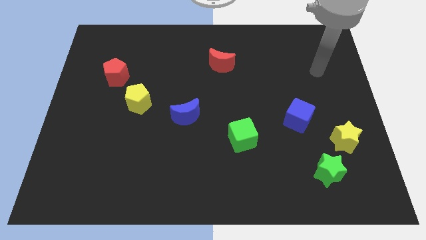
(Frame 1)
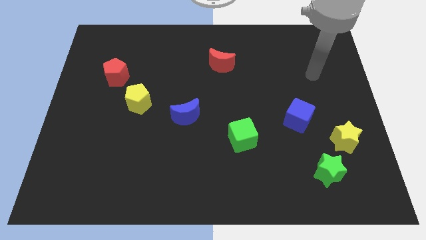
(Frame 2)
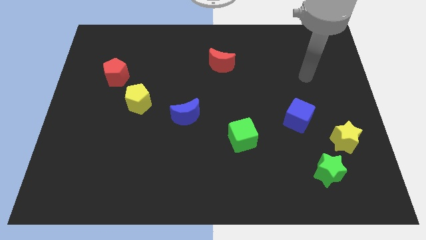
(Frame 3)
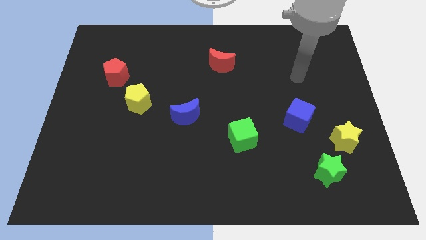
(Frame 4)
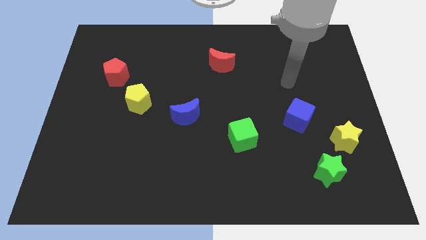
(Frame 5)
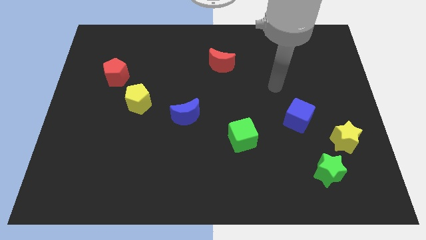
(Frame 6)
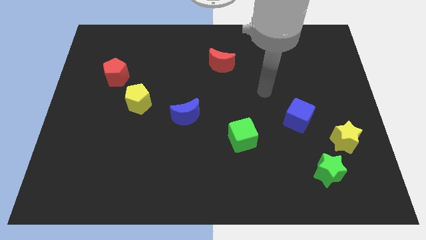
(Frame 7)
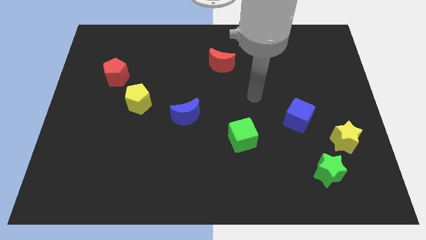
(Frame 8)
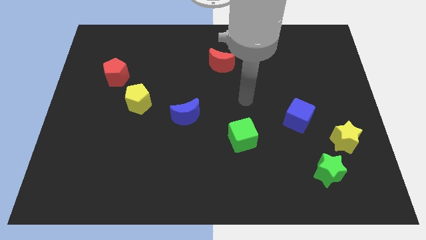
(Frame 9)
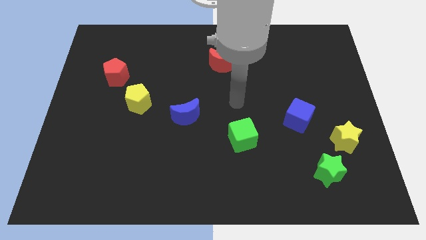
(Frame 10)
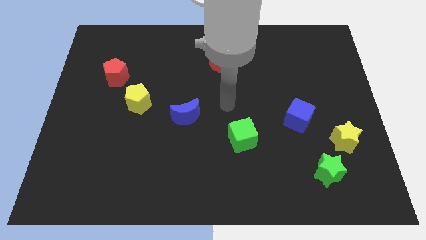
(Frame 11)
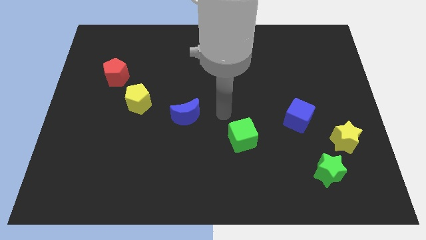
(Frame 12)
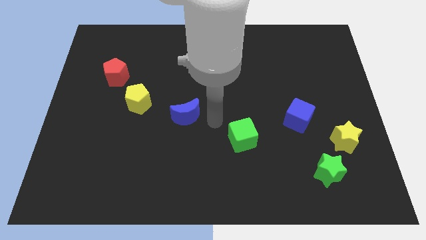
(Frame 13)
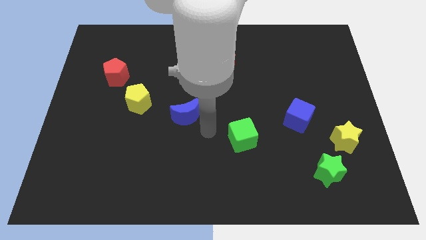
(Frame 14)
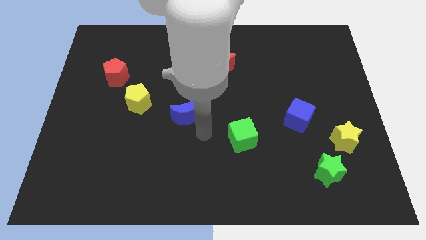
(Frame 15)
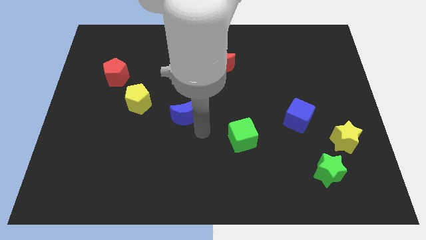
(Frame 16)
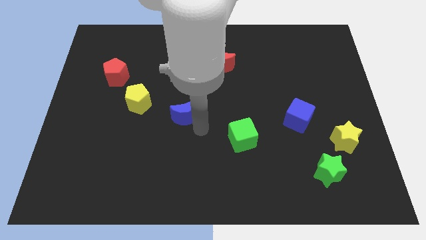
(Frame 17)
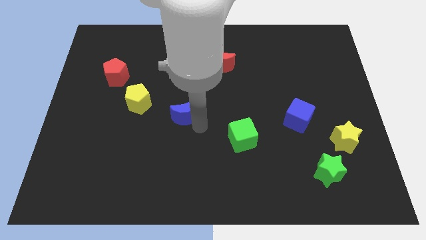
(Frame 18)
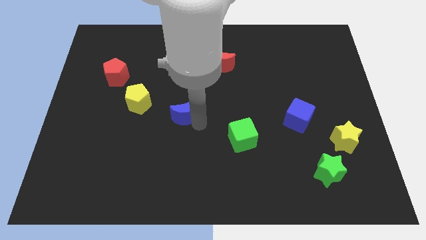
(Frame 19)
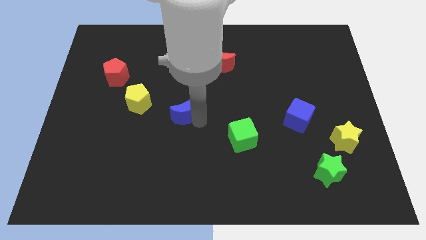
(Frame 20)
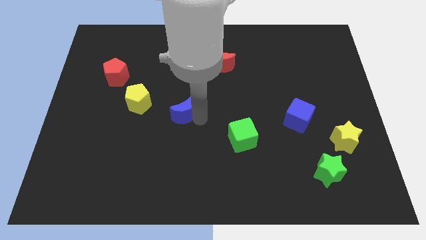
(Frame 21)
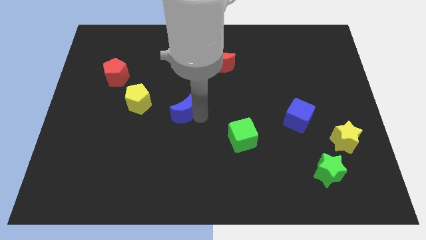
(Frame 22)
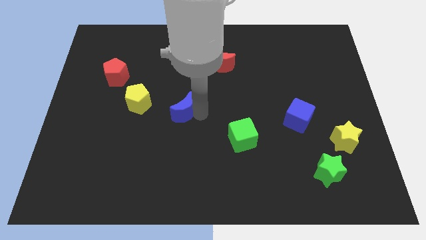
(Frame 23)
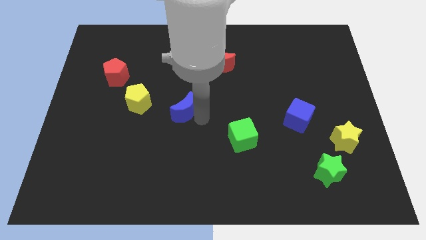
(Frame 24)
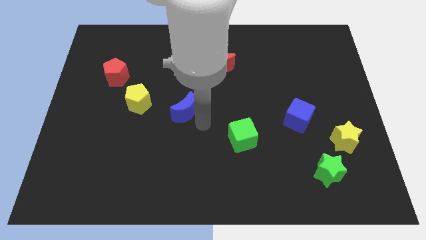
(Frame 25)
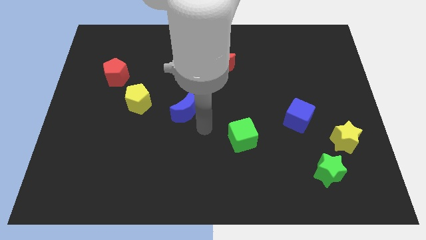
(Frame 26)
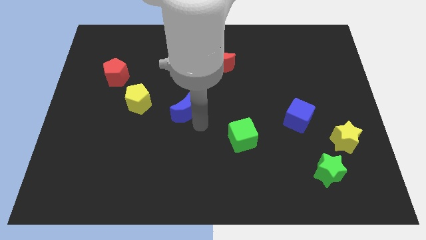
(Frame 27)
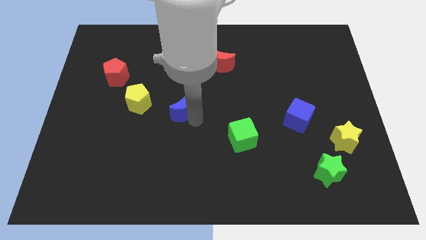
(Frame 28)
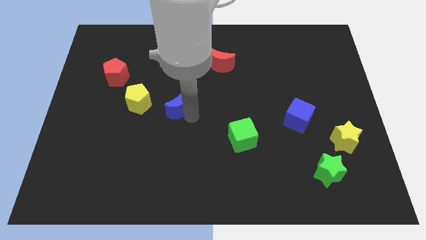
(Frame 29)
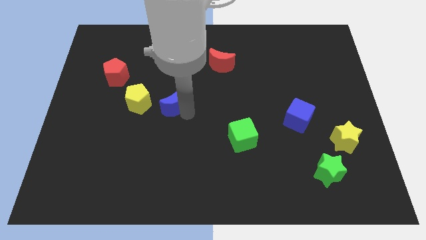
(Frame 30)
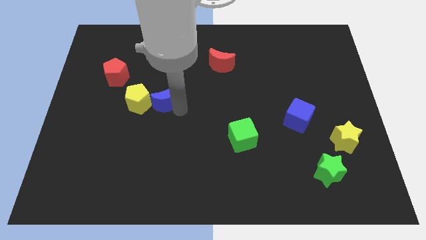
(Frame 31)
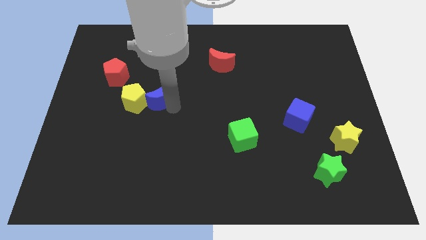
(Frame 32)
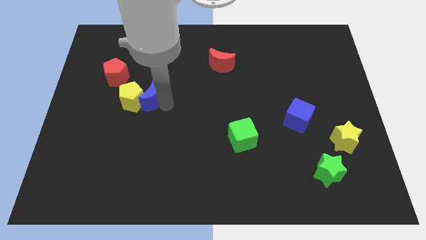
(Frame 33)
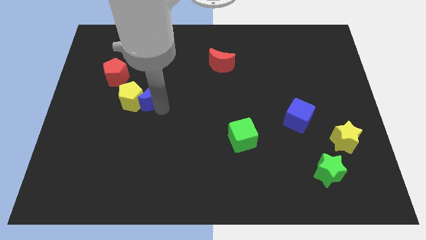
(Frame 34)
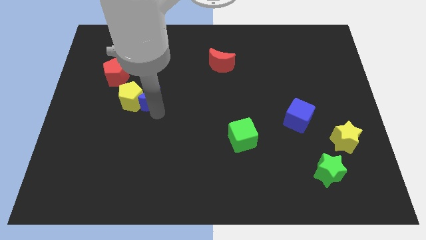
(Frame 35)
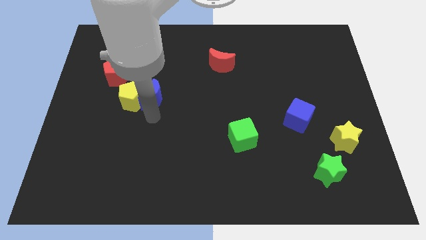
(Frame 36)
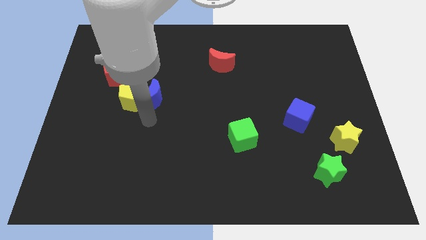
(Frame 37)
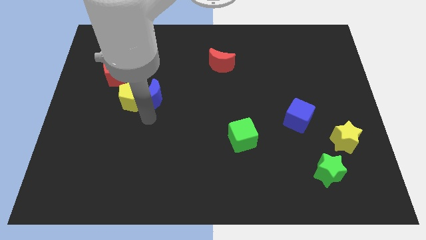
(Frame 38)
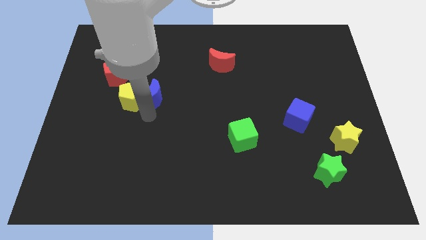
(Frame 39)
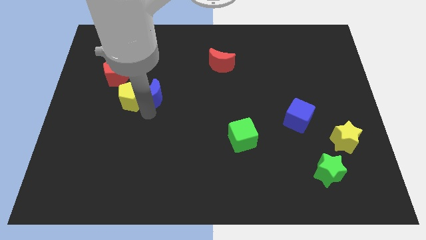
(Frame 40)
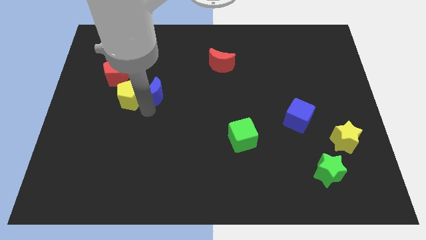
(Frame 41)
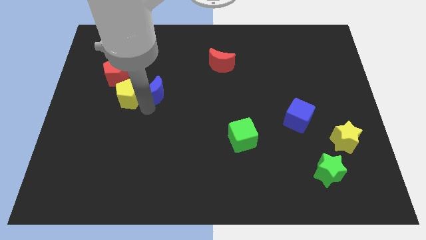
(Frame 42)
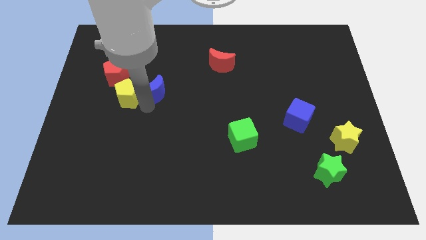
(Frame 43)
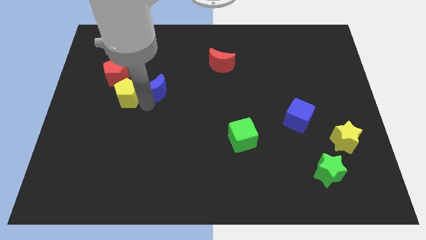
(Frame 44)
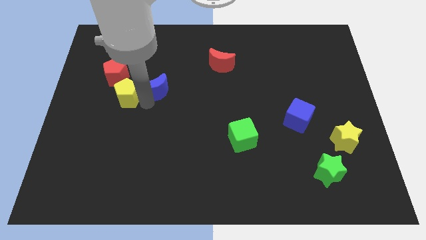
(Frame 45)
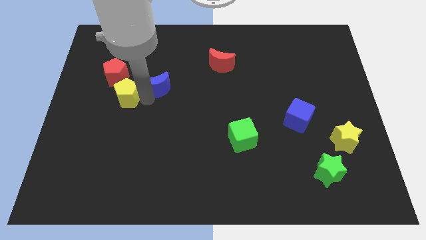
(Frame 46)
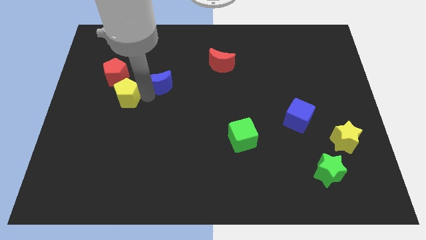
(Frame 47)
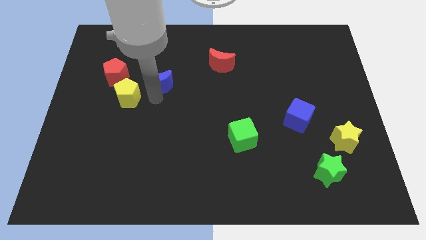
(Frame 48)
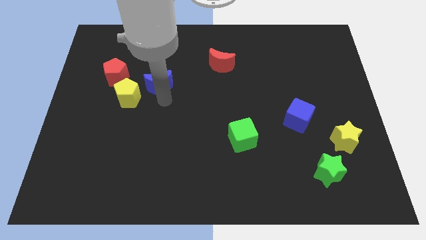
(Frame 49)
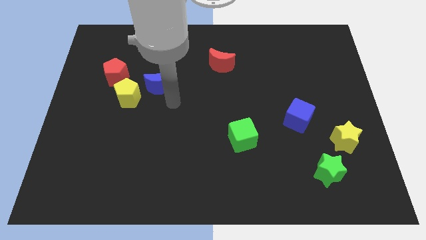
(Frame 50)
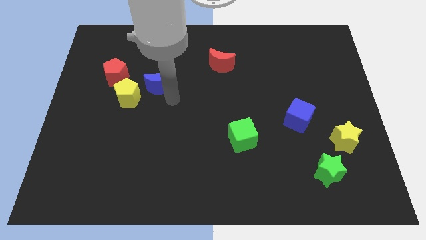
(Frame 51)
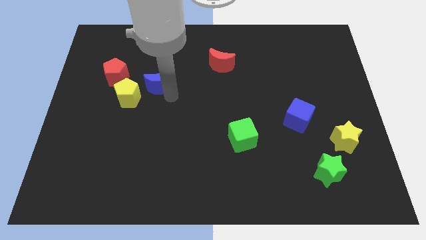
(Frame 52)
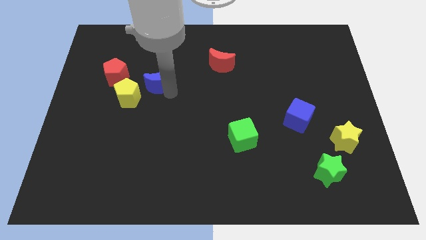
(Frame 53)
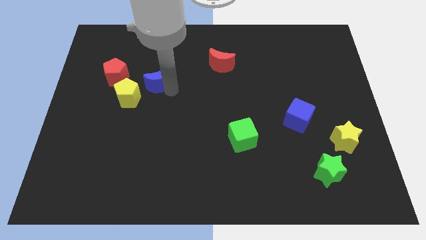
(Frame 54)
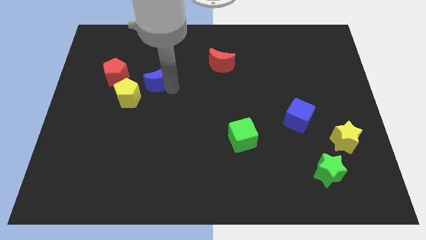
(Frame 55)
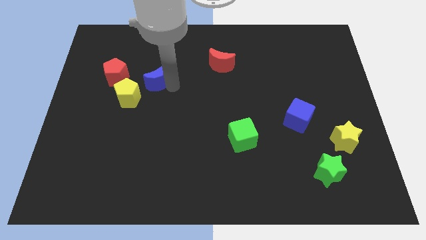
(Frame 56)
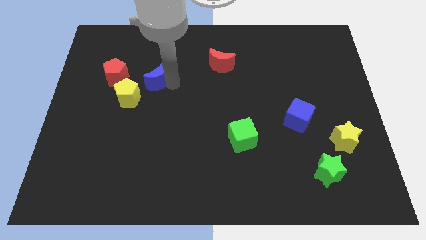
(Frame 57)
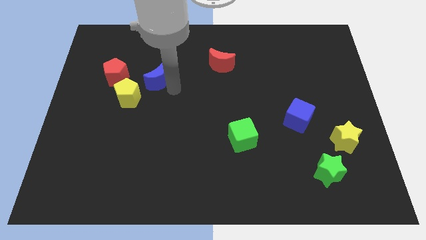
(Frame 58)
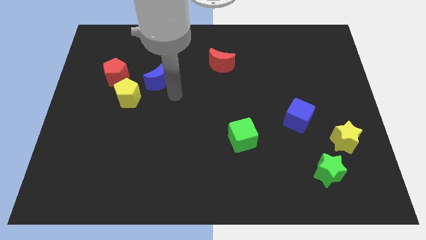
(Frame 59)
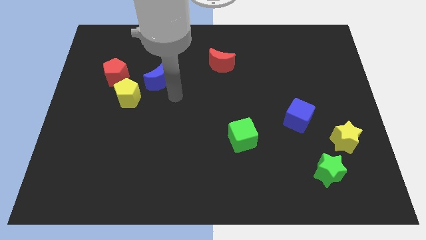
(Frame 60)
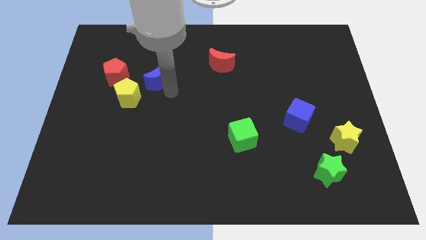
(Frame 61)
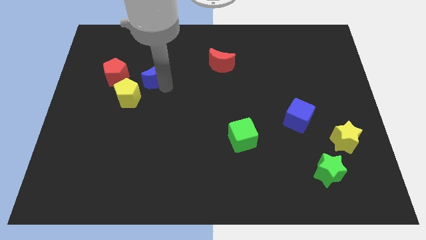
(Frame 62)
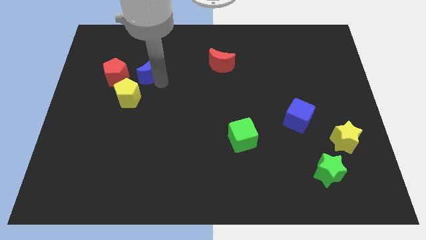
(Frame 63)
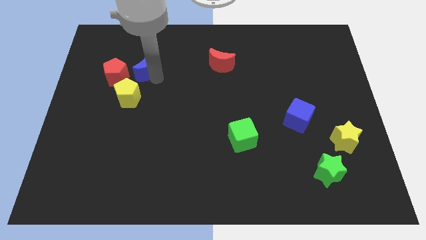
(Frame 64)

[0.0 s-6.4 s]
move the blue moon diagonally up and to the right of the red pentagon

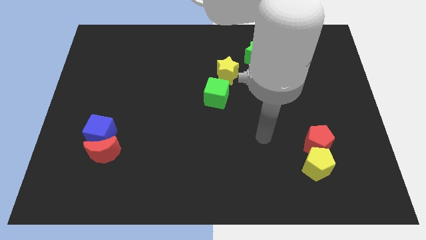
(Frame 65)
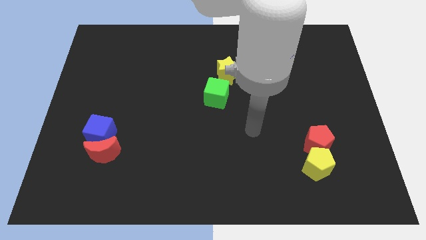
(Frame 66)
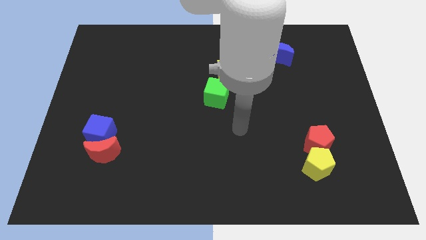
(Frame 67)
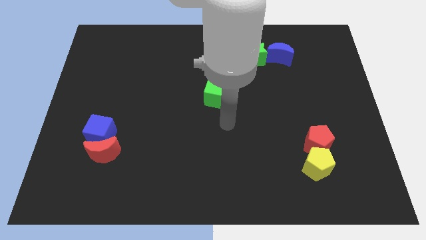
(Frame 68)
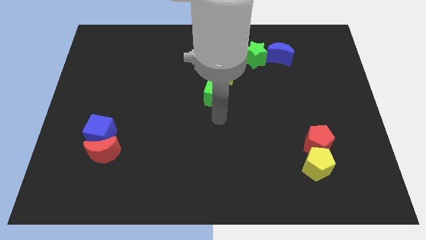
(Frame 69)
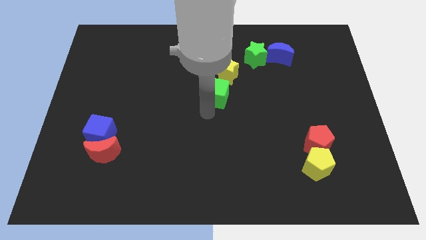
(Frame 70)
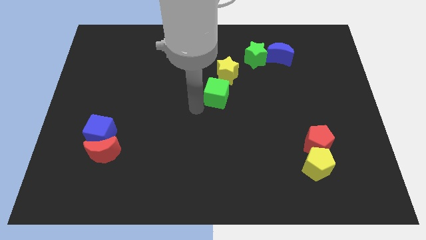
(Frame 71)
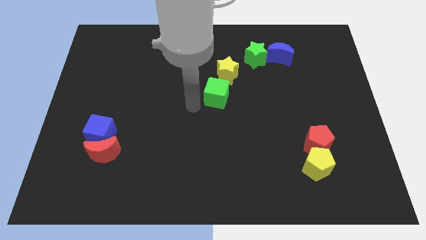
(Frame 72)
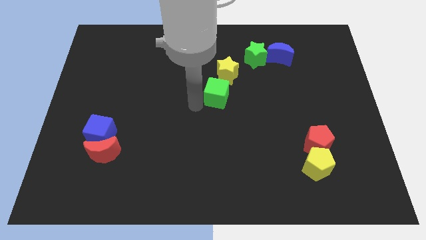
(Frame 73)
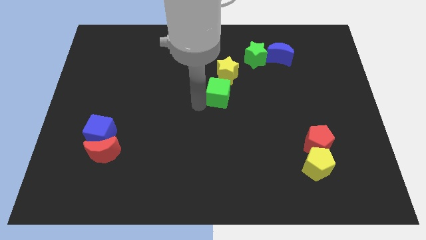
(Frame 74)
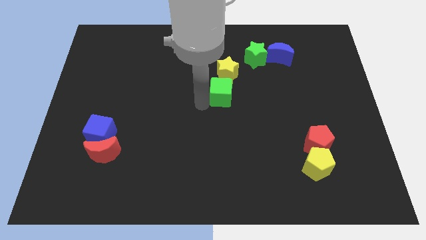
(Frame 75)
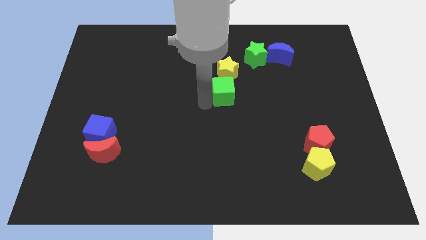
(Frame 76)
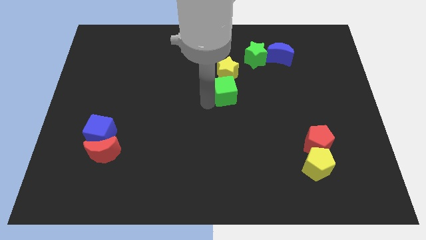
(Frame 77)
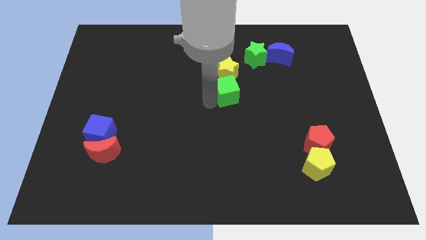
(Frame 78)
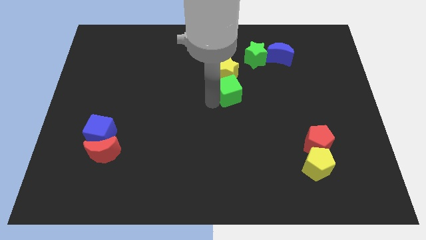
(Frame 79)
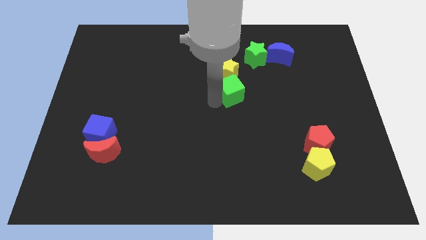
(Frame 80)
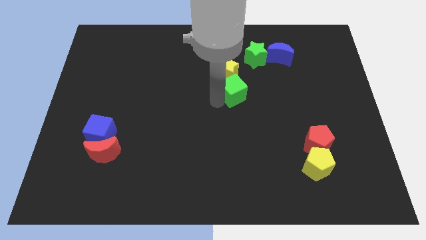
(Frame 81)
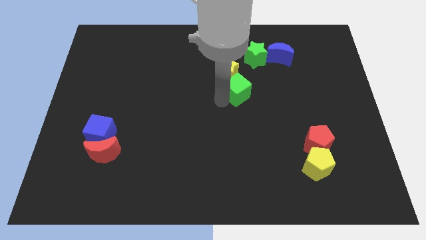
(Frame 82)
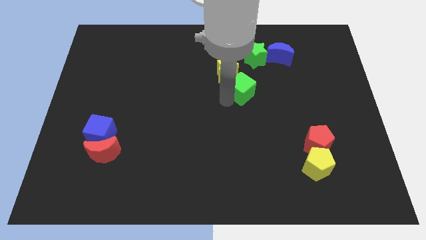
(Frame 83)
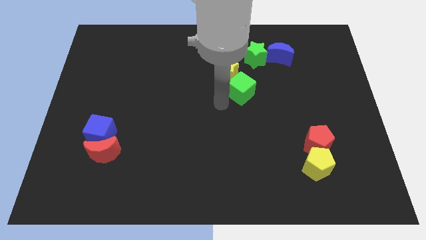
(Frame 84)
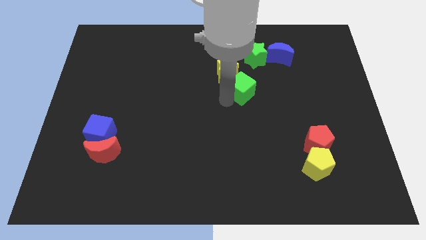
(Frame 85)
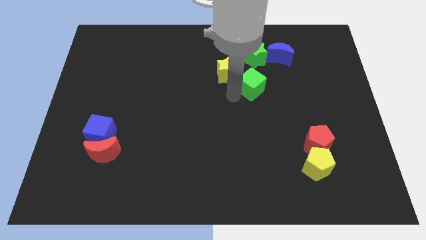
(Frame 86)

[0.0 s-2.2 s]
push the green cube to the right of the yellow star
